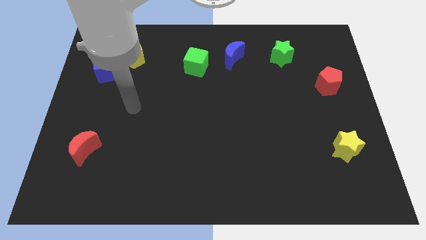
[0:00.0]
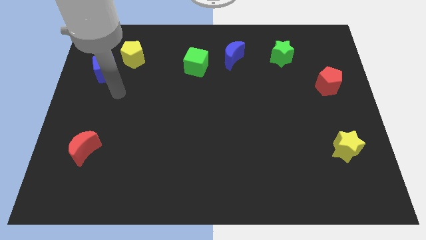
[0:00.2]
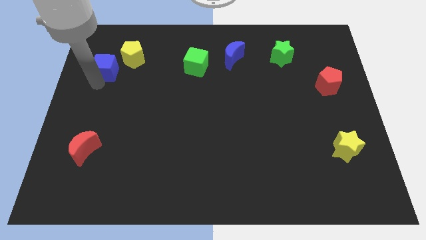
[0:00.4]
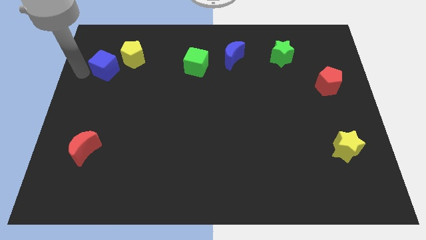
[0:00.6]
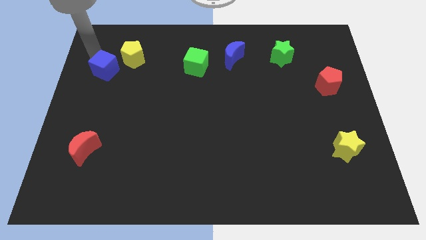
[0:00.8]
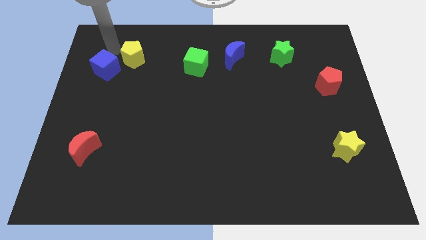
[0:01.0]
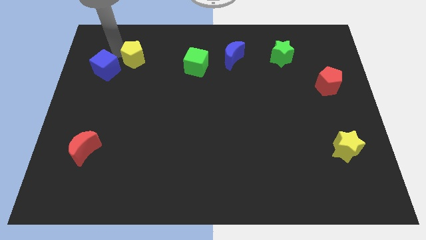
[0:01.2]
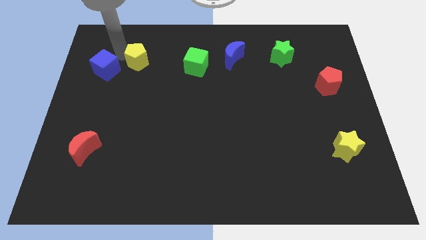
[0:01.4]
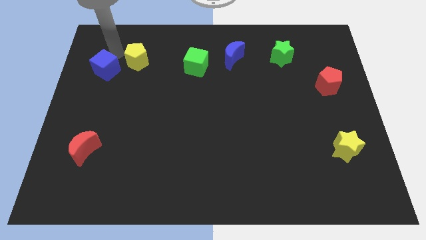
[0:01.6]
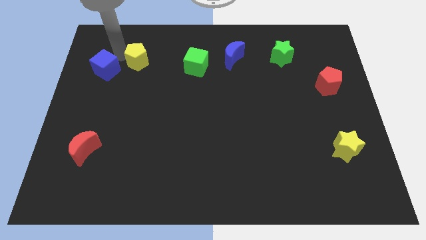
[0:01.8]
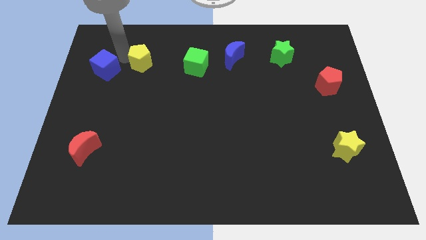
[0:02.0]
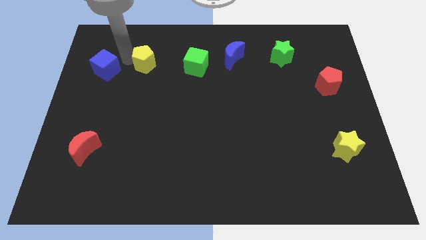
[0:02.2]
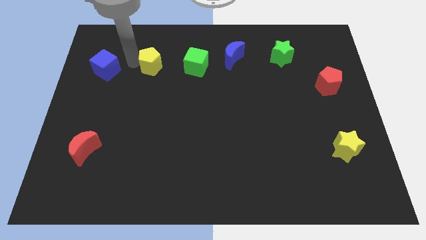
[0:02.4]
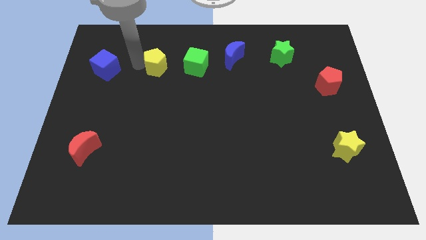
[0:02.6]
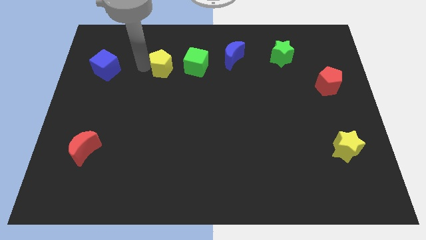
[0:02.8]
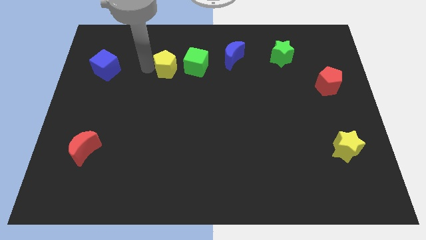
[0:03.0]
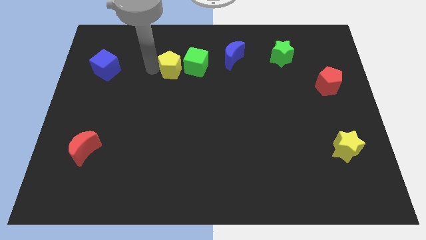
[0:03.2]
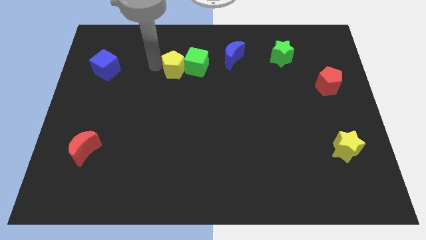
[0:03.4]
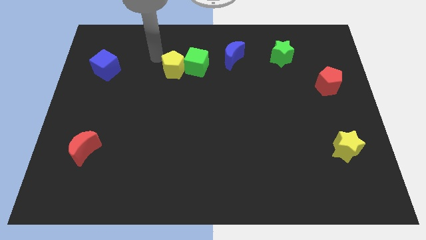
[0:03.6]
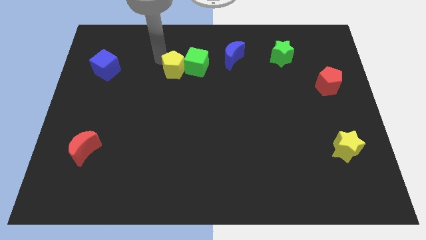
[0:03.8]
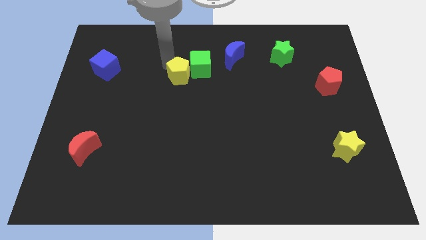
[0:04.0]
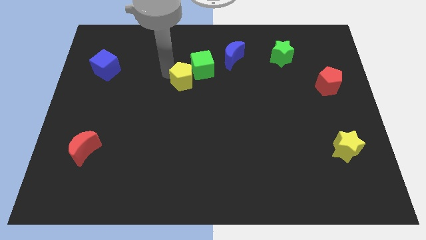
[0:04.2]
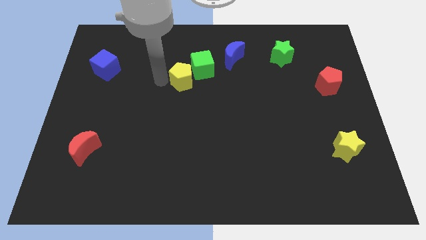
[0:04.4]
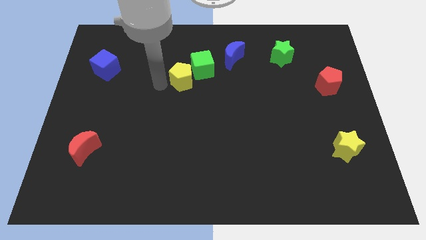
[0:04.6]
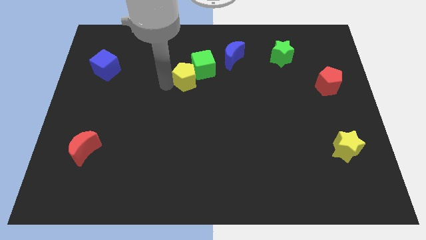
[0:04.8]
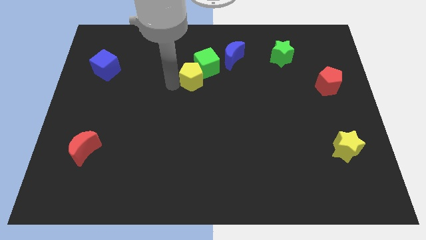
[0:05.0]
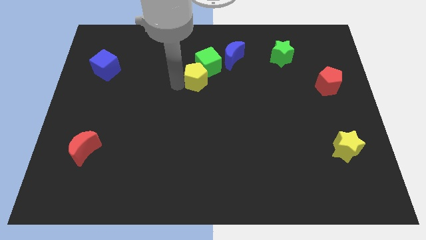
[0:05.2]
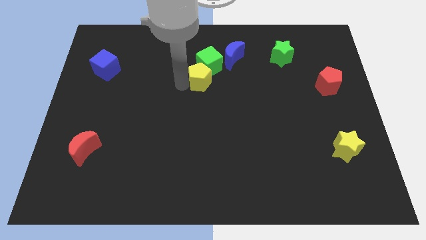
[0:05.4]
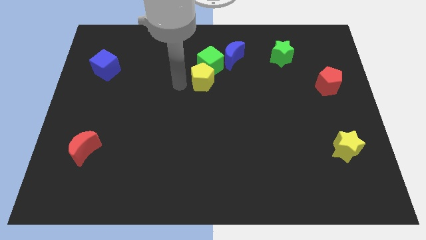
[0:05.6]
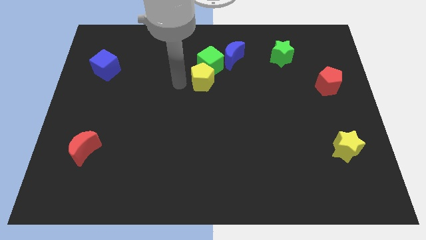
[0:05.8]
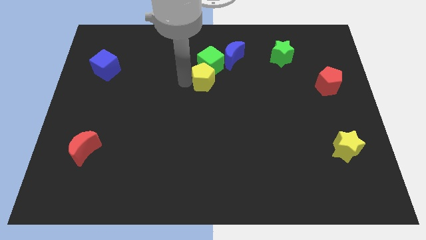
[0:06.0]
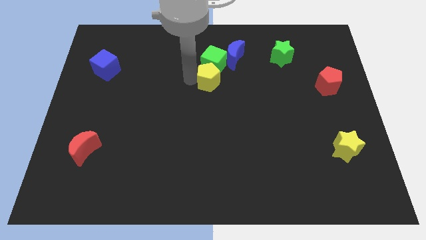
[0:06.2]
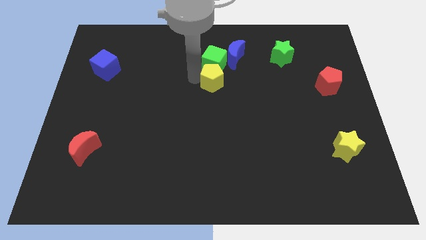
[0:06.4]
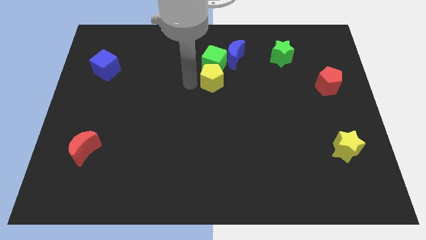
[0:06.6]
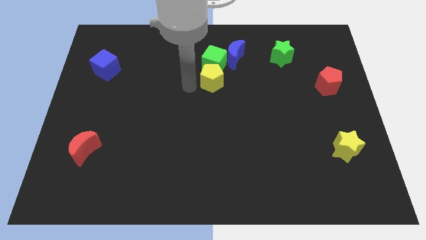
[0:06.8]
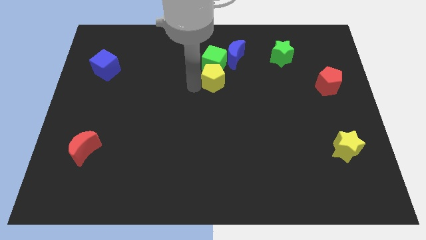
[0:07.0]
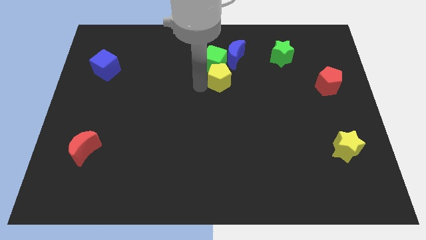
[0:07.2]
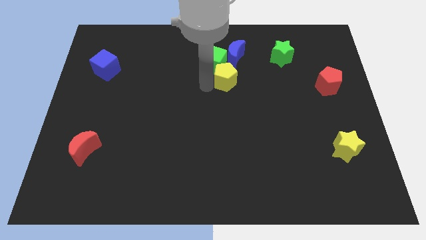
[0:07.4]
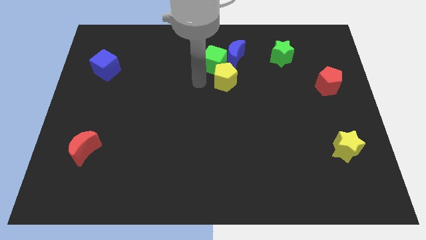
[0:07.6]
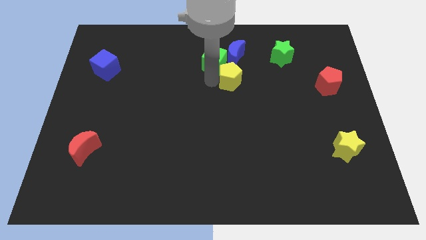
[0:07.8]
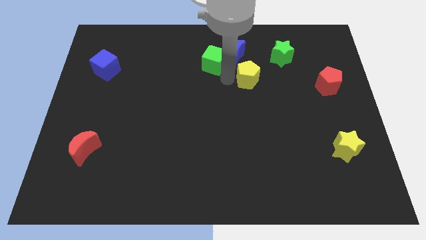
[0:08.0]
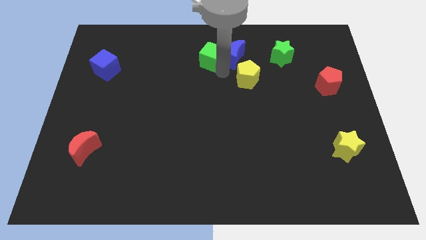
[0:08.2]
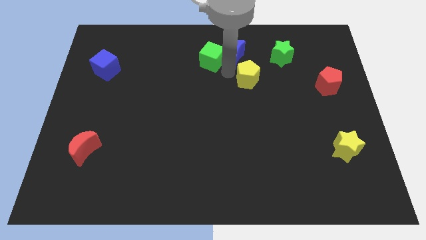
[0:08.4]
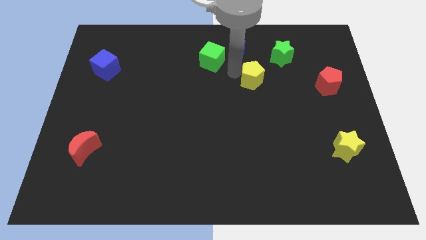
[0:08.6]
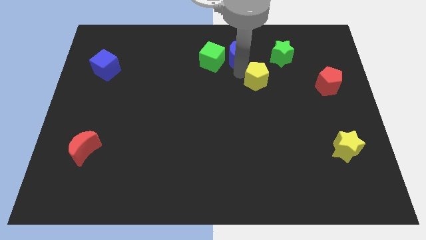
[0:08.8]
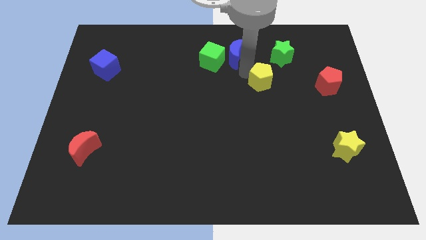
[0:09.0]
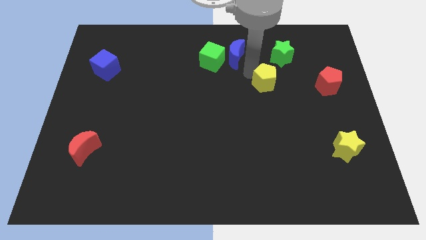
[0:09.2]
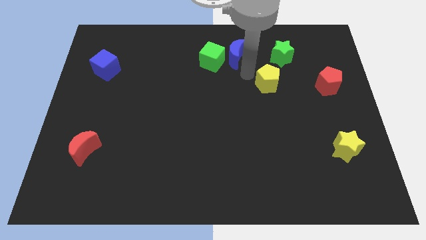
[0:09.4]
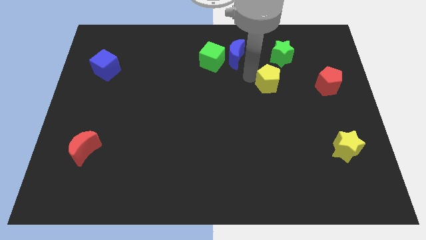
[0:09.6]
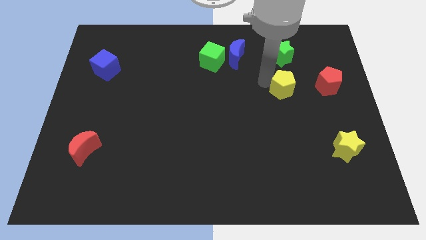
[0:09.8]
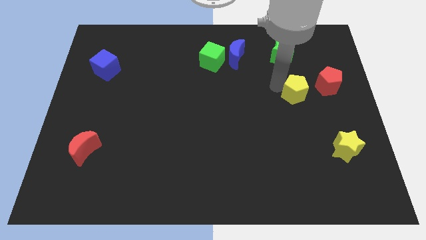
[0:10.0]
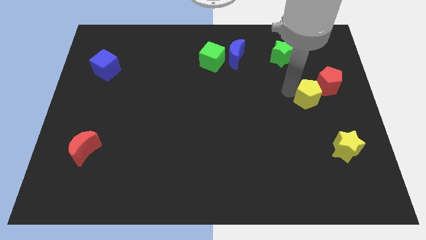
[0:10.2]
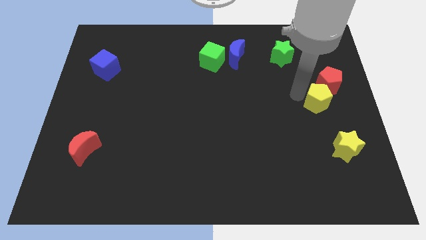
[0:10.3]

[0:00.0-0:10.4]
put the yellow pentagon to the center right

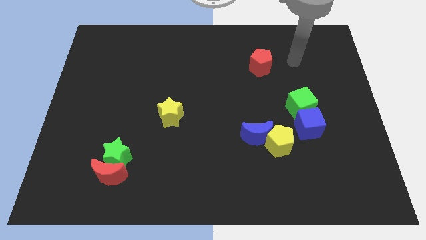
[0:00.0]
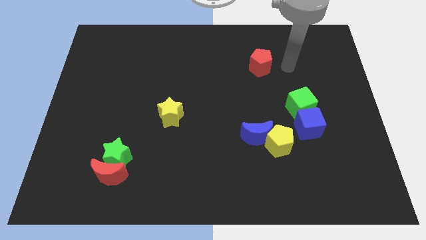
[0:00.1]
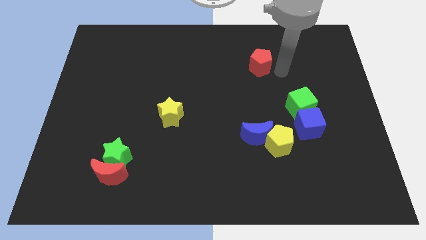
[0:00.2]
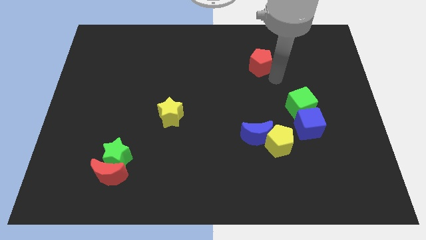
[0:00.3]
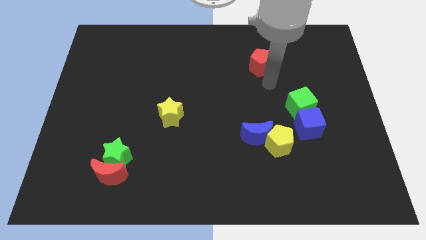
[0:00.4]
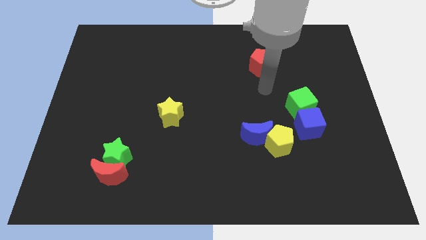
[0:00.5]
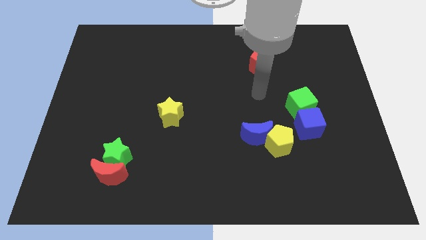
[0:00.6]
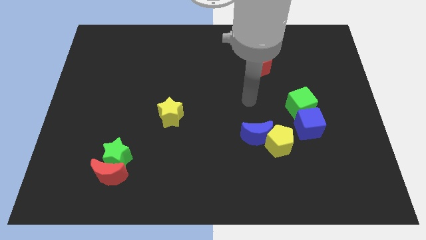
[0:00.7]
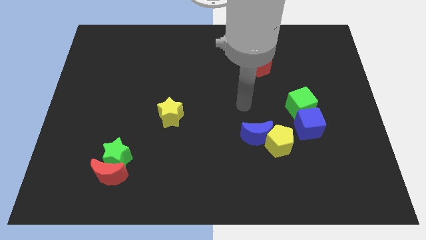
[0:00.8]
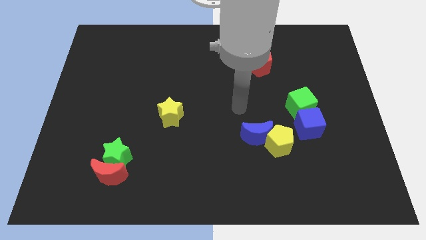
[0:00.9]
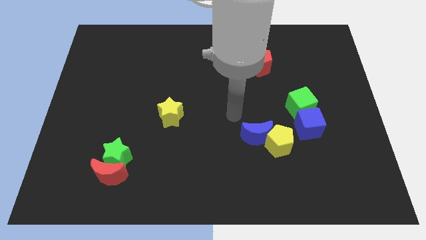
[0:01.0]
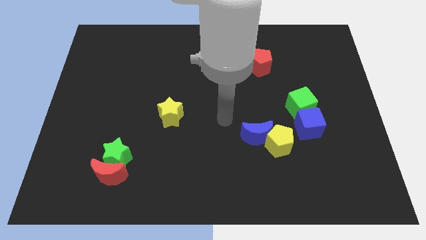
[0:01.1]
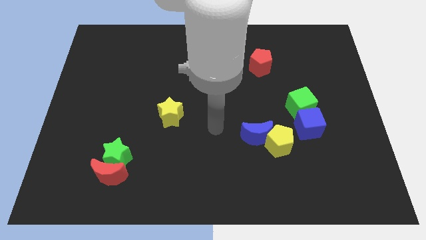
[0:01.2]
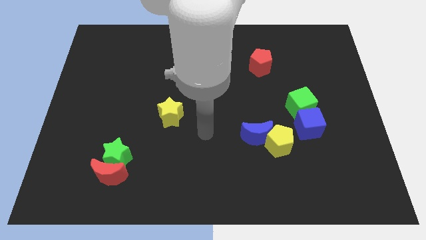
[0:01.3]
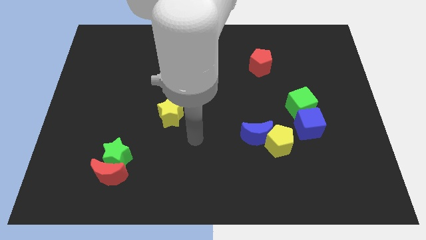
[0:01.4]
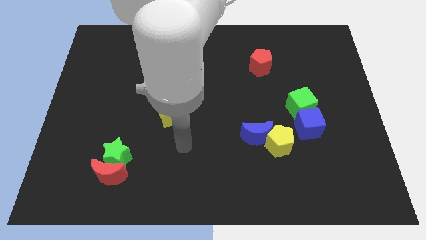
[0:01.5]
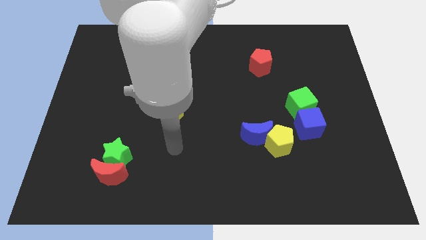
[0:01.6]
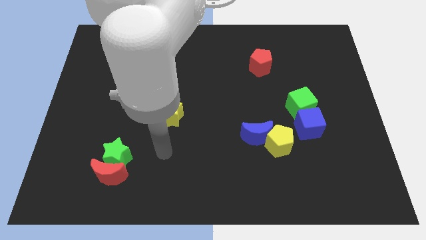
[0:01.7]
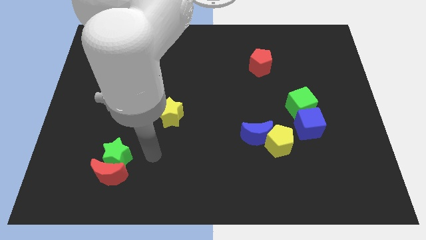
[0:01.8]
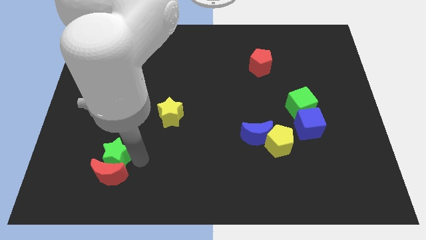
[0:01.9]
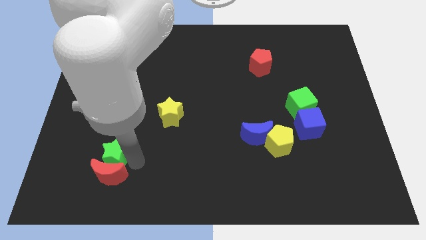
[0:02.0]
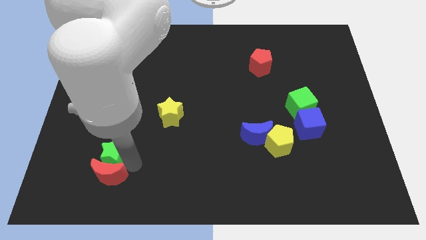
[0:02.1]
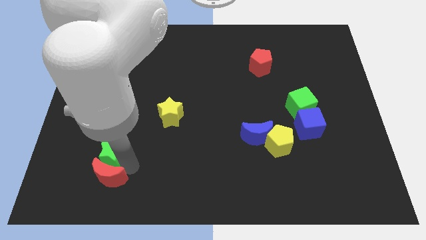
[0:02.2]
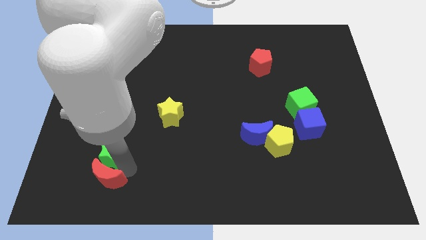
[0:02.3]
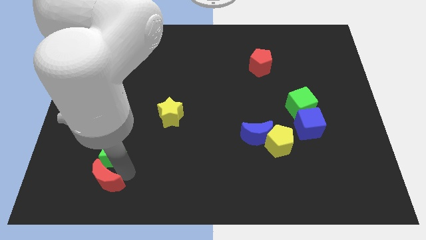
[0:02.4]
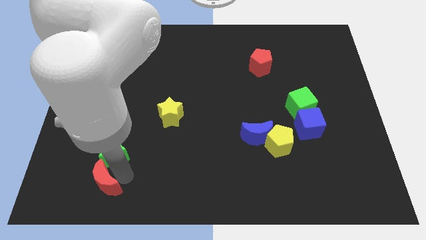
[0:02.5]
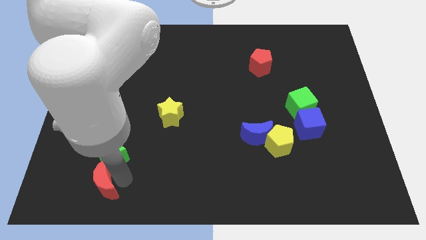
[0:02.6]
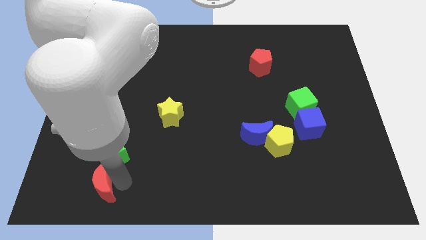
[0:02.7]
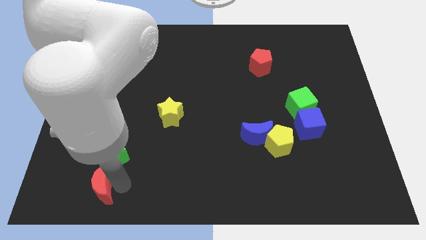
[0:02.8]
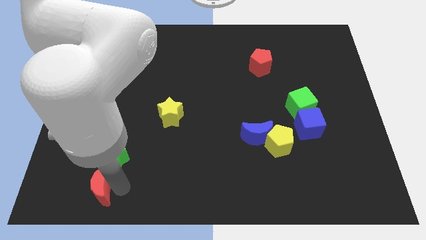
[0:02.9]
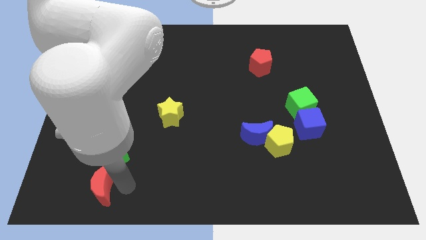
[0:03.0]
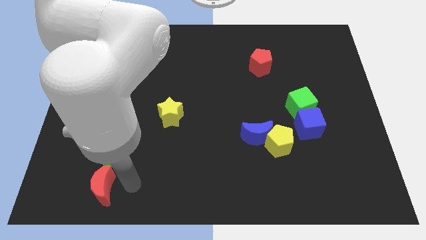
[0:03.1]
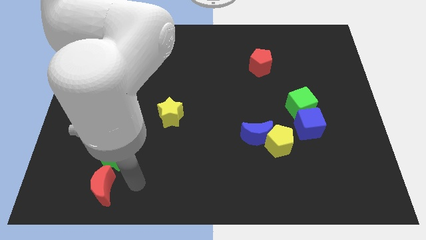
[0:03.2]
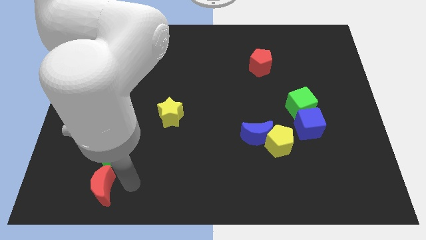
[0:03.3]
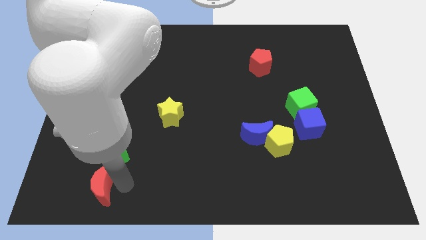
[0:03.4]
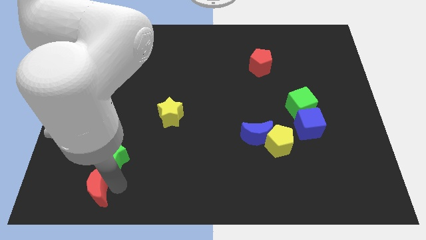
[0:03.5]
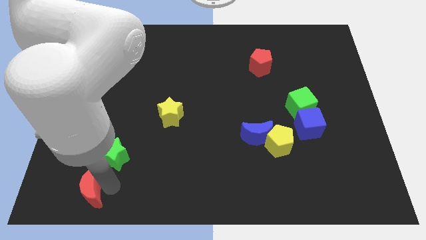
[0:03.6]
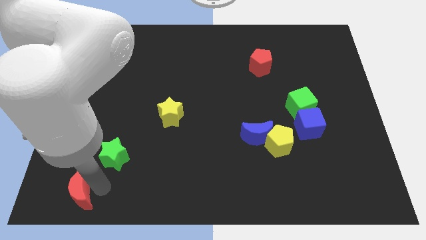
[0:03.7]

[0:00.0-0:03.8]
slide the red moon to the lower left corner
